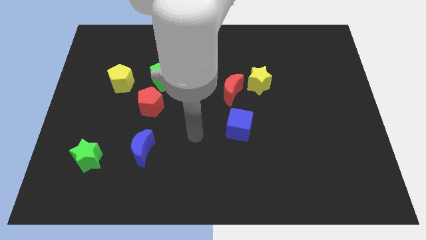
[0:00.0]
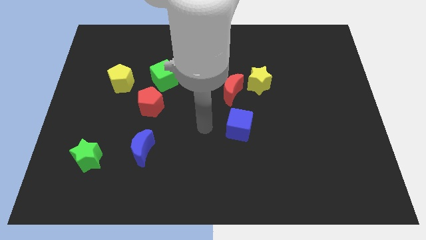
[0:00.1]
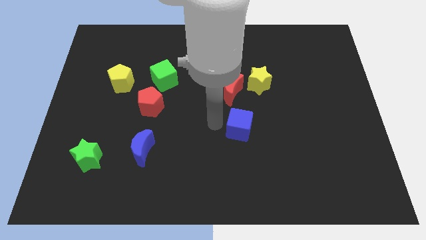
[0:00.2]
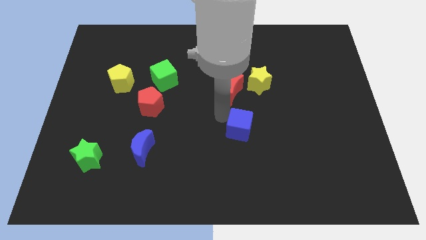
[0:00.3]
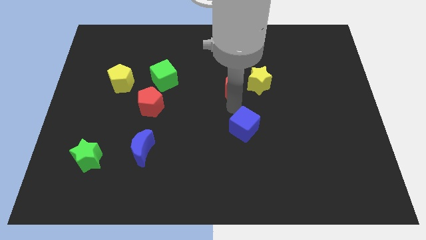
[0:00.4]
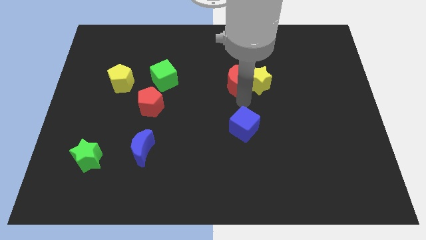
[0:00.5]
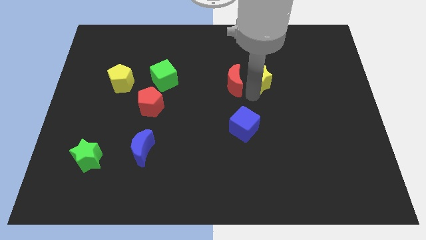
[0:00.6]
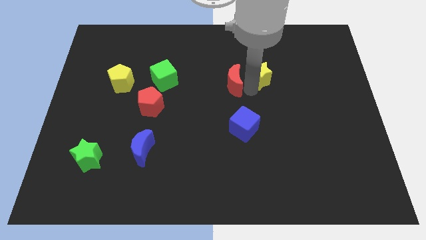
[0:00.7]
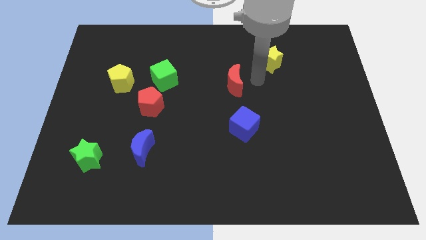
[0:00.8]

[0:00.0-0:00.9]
separate the red moon from the yellow star

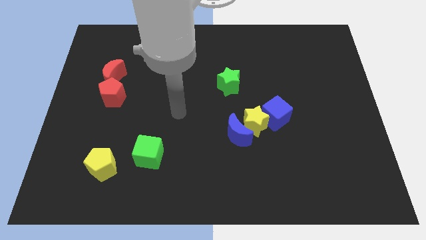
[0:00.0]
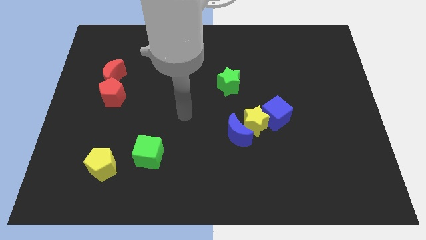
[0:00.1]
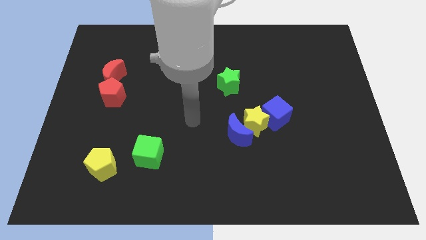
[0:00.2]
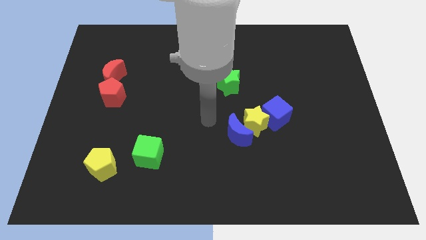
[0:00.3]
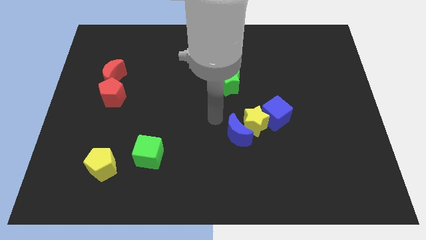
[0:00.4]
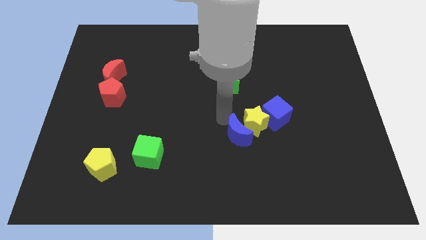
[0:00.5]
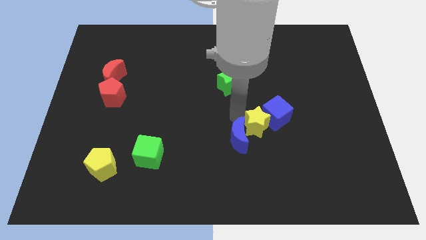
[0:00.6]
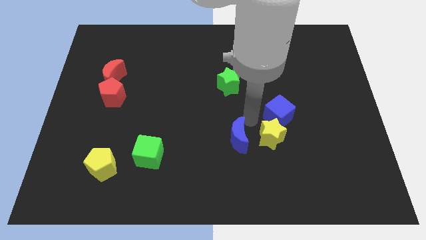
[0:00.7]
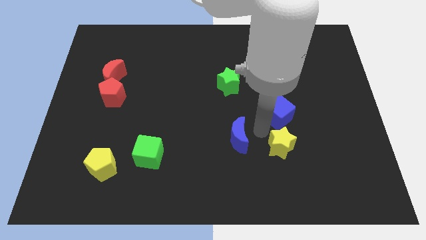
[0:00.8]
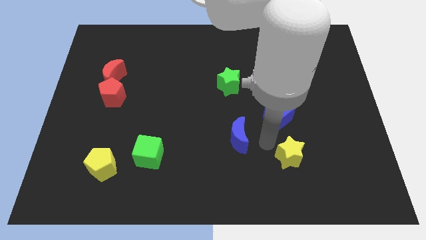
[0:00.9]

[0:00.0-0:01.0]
separate the blue moon from the yellow star

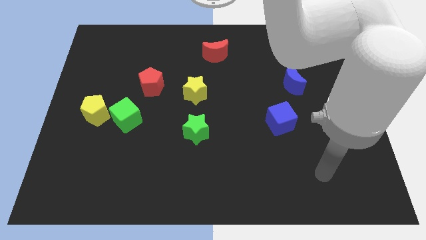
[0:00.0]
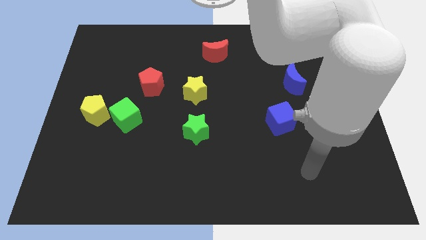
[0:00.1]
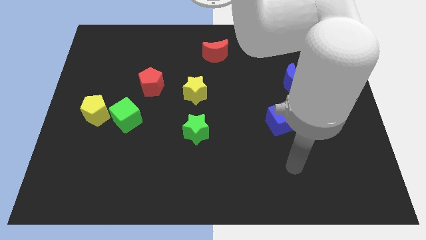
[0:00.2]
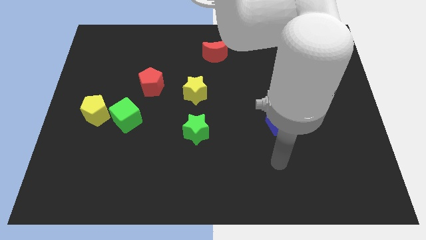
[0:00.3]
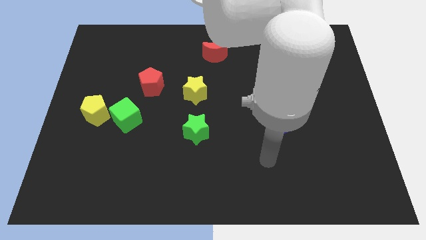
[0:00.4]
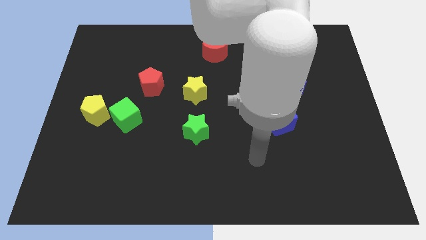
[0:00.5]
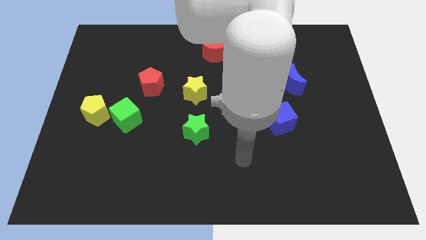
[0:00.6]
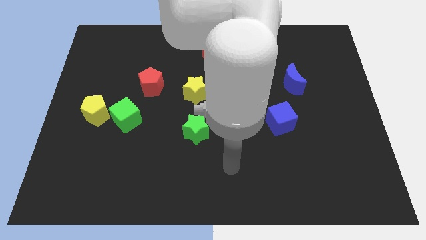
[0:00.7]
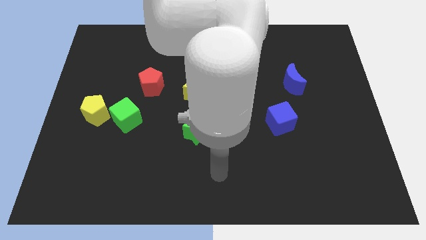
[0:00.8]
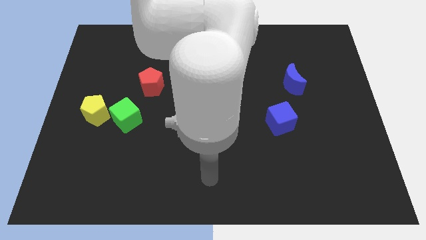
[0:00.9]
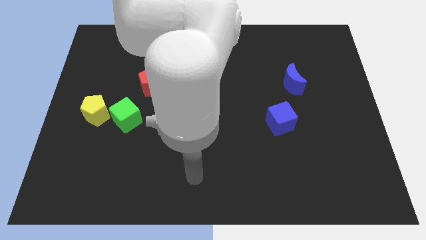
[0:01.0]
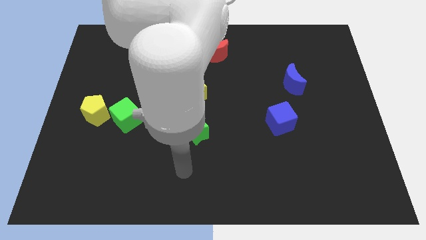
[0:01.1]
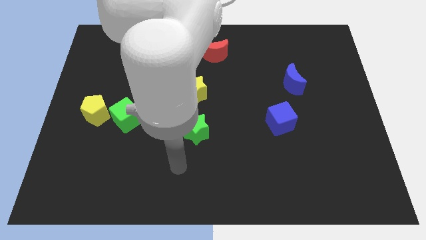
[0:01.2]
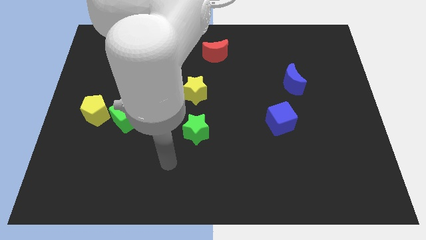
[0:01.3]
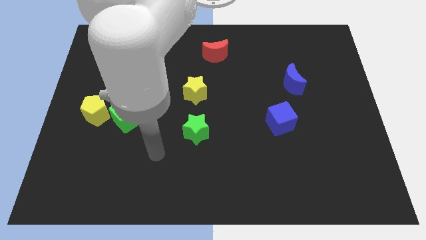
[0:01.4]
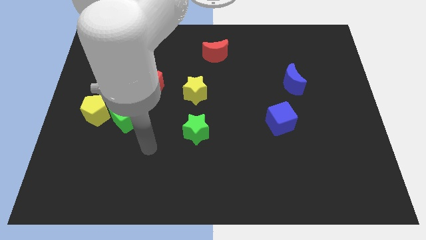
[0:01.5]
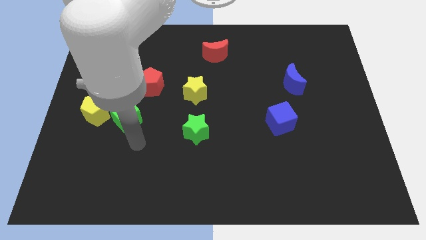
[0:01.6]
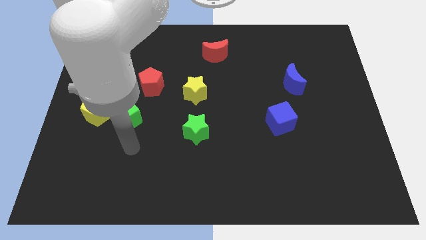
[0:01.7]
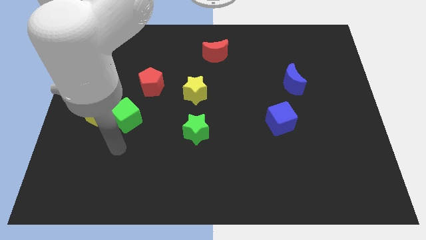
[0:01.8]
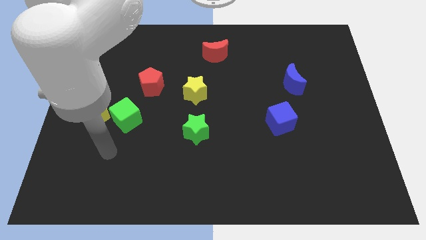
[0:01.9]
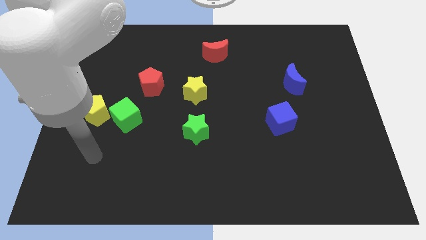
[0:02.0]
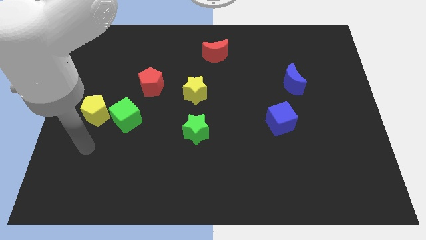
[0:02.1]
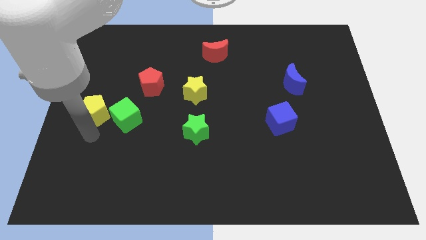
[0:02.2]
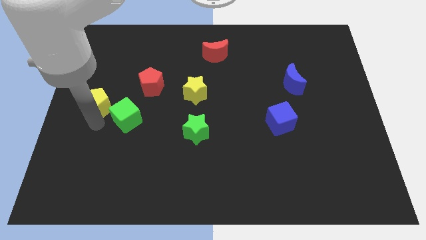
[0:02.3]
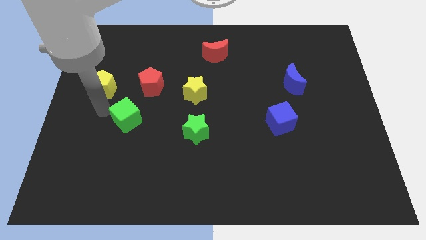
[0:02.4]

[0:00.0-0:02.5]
pull the green cube apart from the yellow pentagon

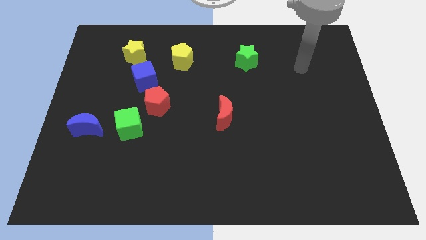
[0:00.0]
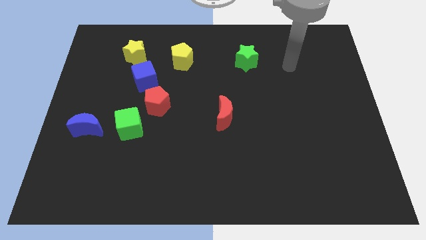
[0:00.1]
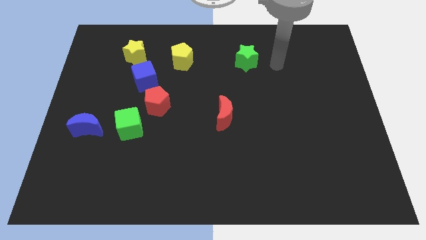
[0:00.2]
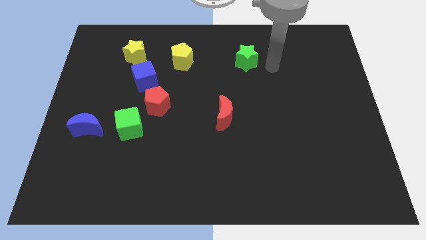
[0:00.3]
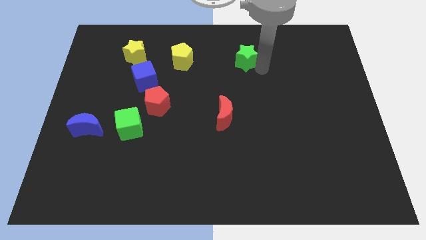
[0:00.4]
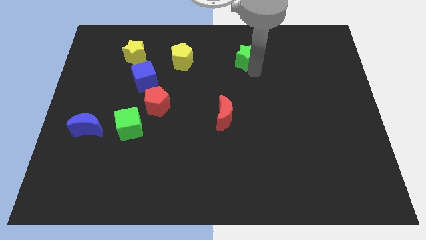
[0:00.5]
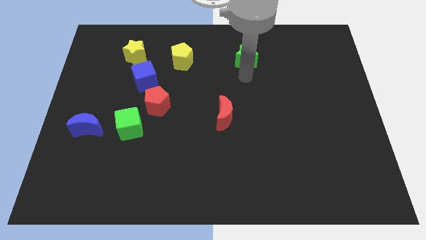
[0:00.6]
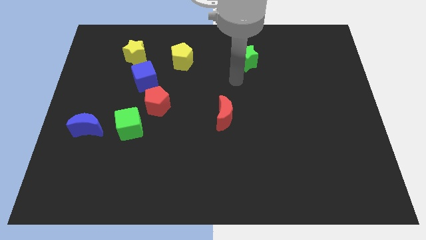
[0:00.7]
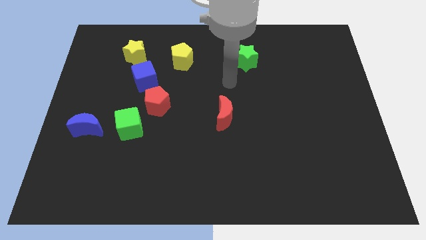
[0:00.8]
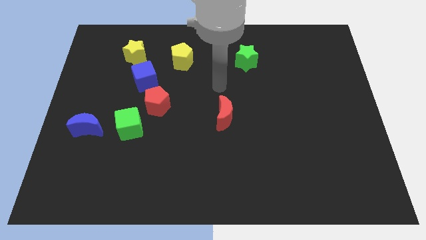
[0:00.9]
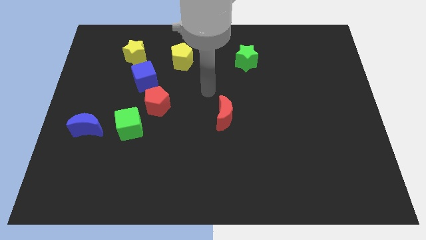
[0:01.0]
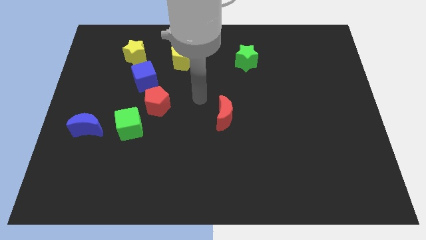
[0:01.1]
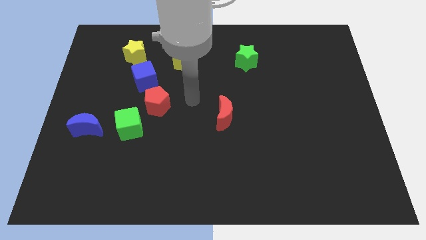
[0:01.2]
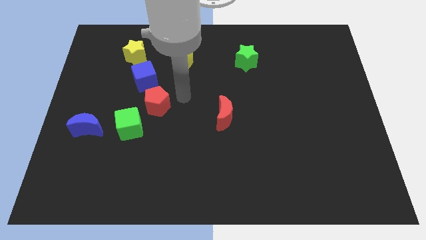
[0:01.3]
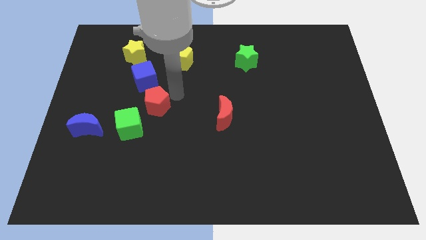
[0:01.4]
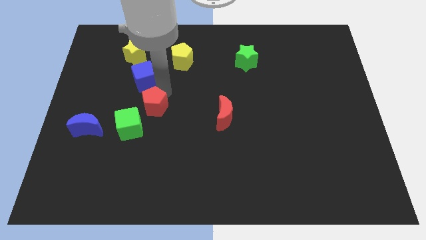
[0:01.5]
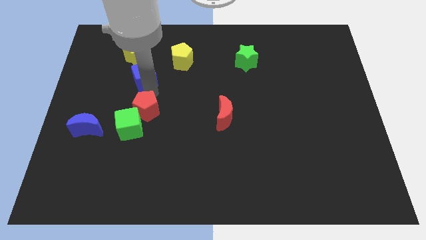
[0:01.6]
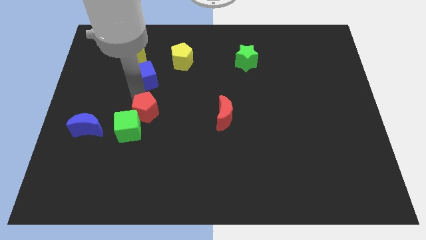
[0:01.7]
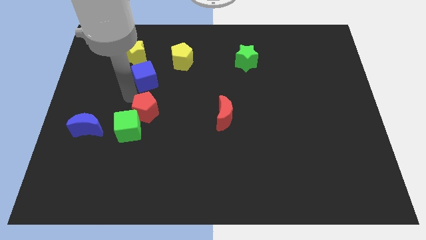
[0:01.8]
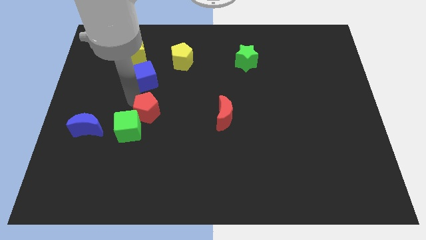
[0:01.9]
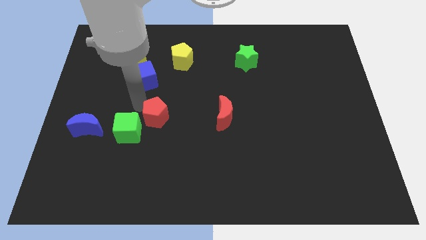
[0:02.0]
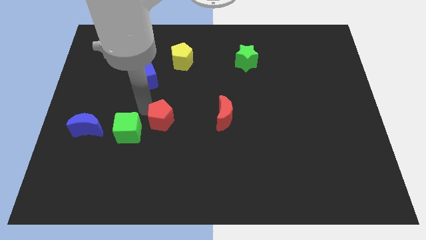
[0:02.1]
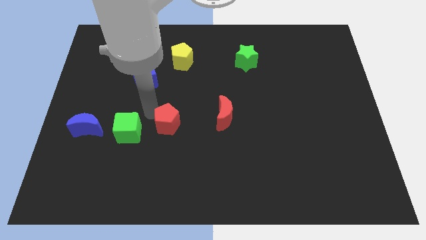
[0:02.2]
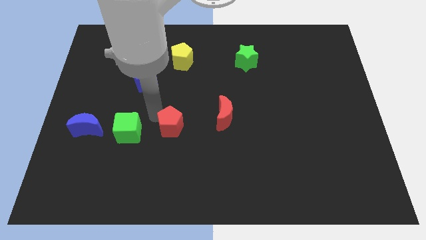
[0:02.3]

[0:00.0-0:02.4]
pull the red pentagon apart from the green cube and blue cube

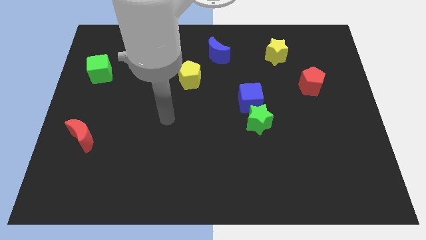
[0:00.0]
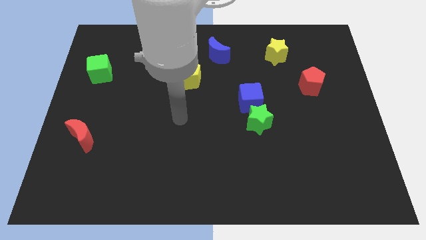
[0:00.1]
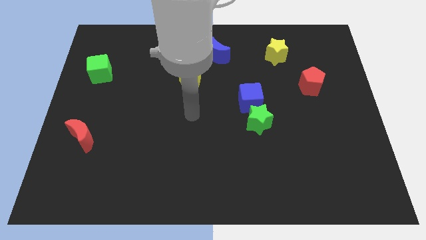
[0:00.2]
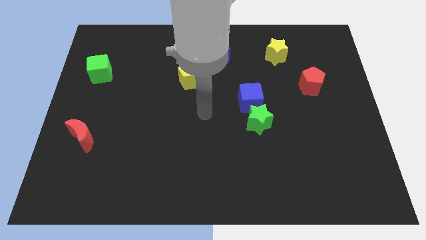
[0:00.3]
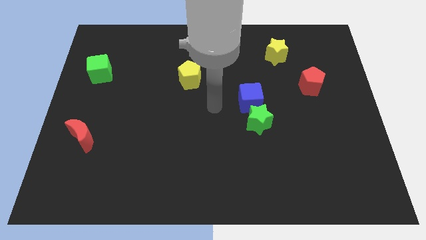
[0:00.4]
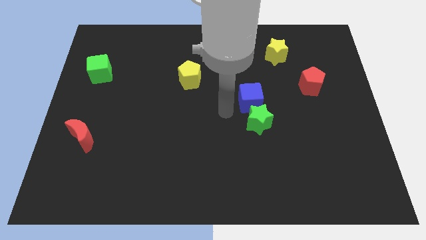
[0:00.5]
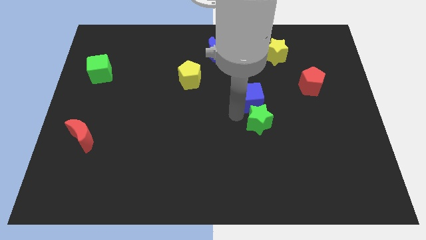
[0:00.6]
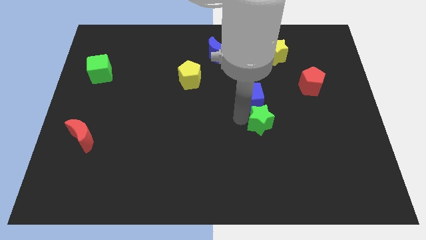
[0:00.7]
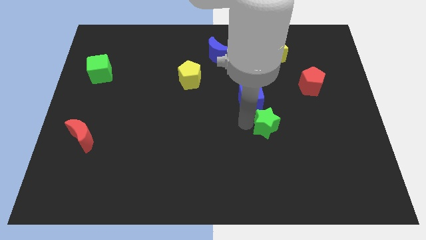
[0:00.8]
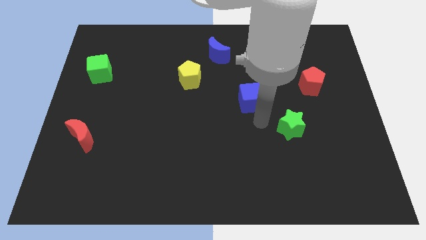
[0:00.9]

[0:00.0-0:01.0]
move the blue cube away from the green star

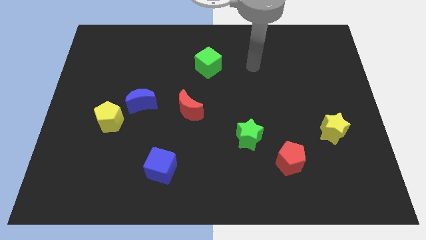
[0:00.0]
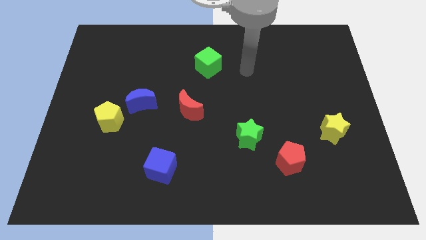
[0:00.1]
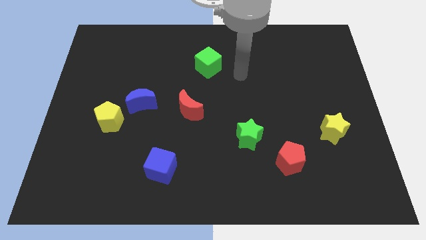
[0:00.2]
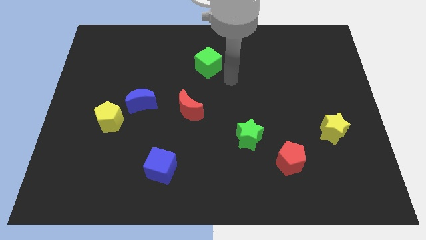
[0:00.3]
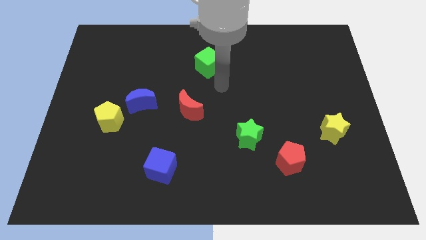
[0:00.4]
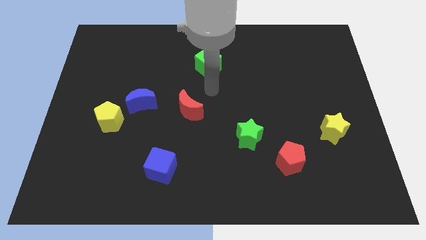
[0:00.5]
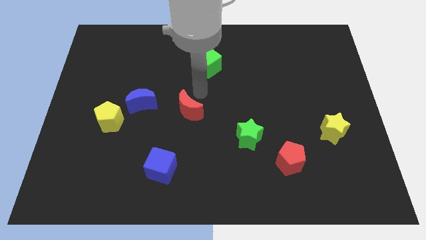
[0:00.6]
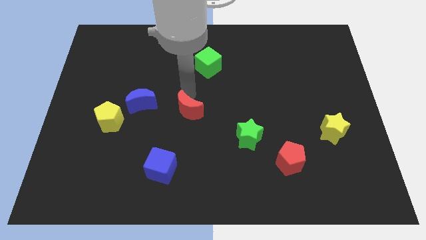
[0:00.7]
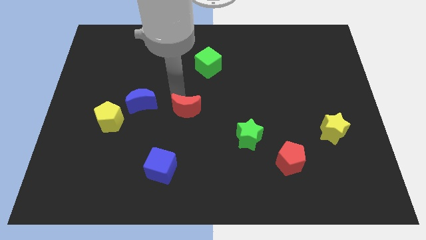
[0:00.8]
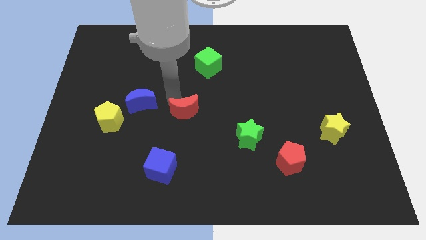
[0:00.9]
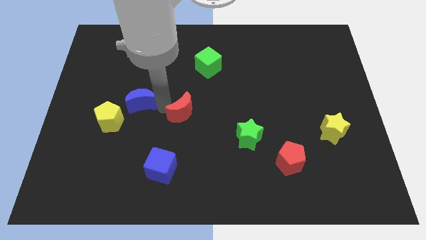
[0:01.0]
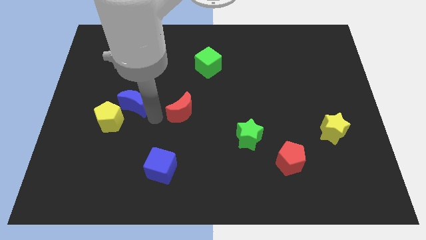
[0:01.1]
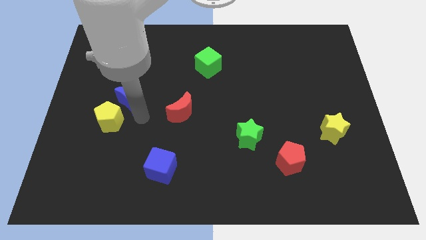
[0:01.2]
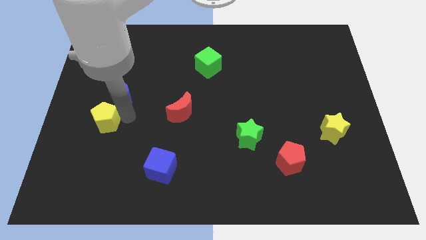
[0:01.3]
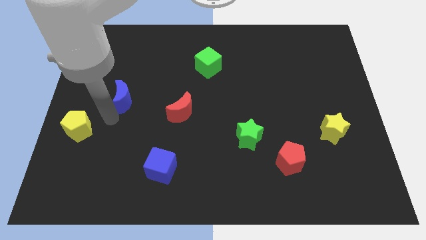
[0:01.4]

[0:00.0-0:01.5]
move the blue moon away from the yellow pentagon
